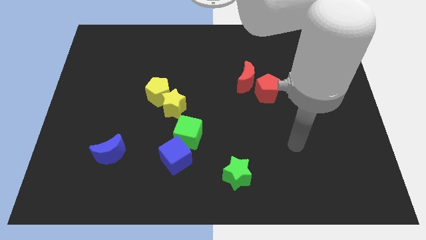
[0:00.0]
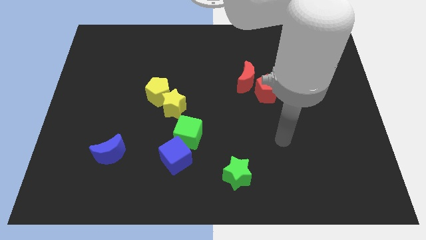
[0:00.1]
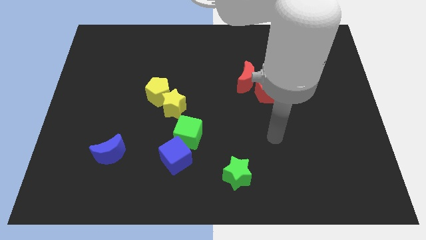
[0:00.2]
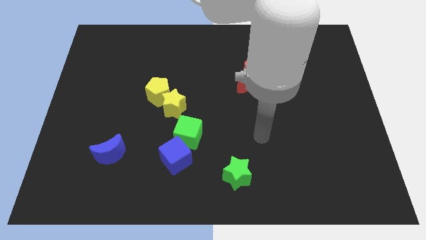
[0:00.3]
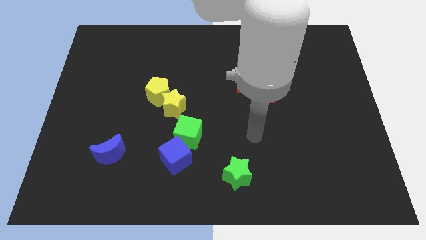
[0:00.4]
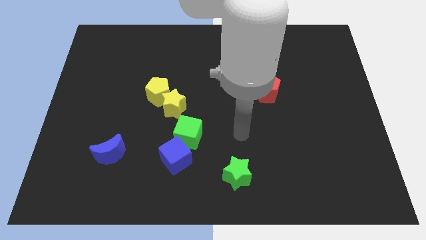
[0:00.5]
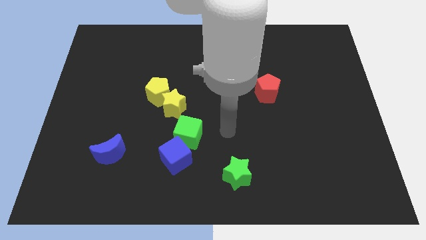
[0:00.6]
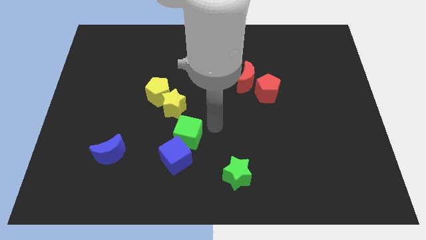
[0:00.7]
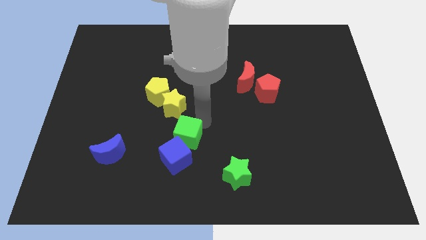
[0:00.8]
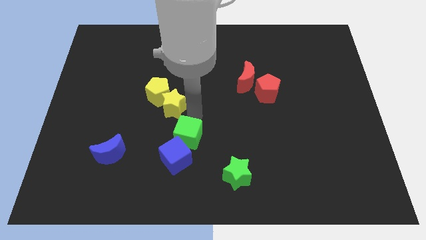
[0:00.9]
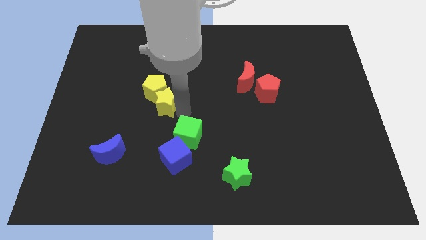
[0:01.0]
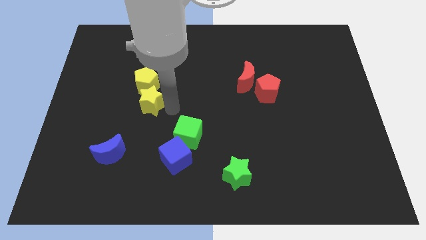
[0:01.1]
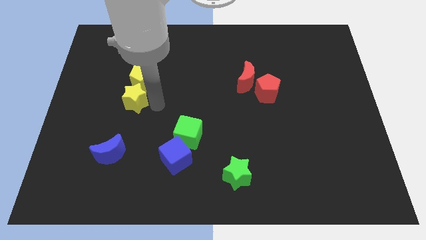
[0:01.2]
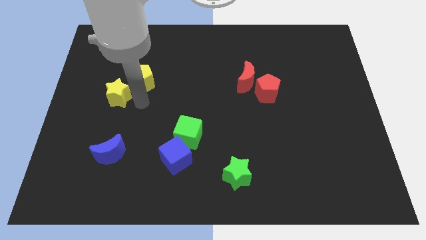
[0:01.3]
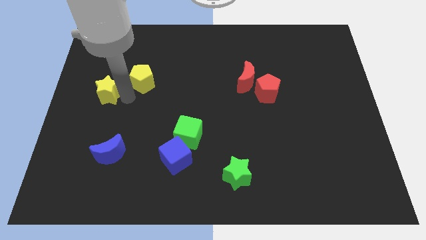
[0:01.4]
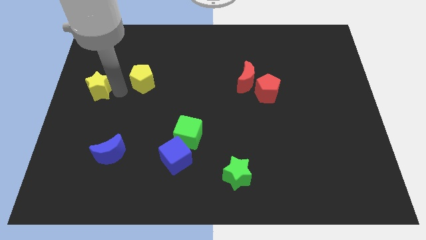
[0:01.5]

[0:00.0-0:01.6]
separate the yellow pentagon from the yellow star

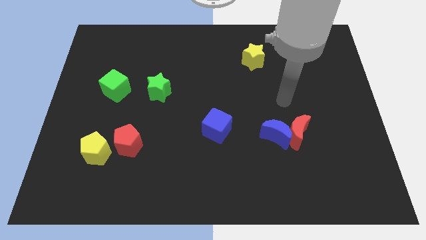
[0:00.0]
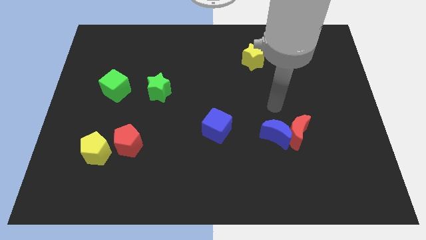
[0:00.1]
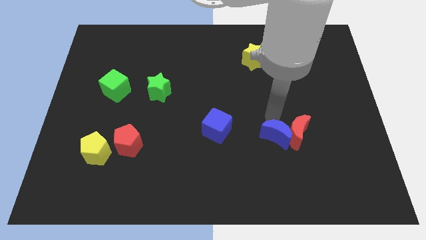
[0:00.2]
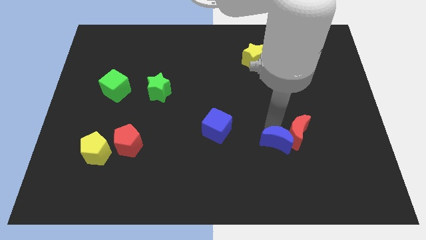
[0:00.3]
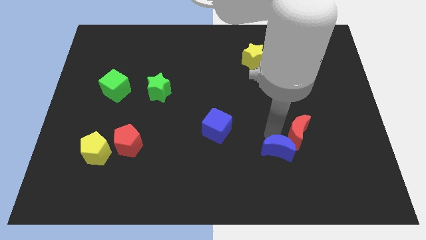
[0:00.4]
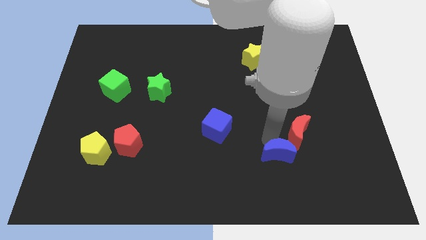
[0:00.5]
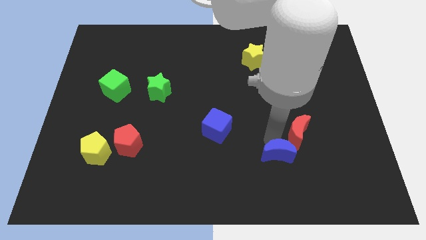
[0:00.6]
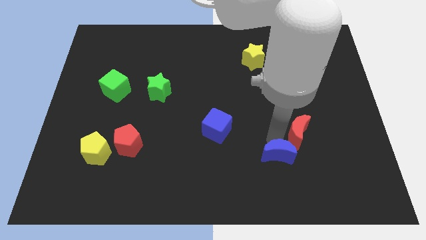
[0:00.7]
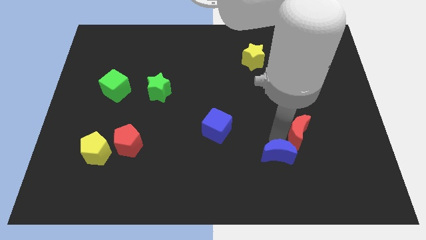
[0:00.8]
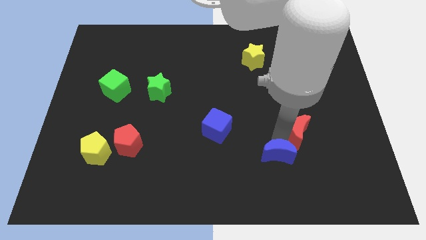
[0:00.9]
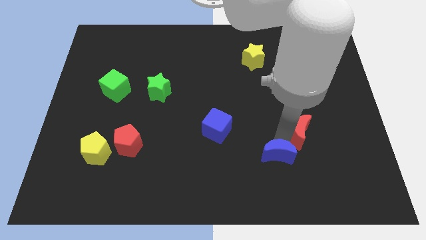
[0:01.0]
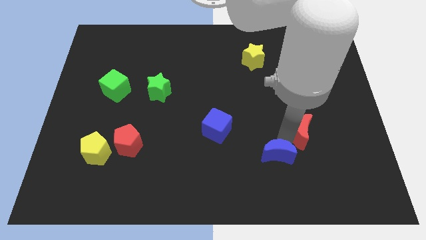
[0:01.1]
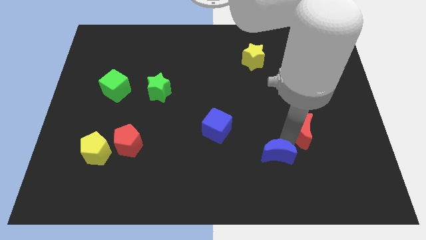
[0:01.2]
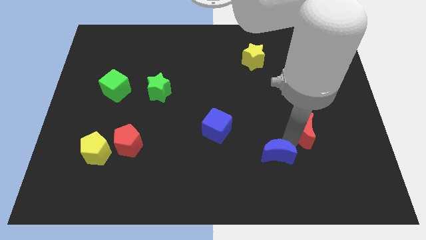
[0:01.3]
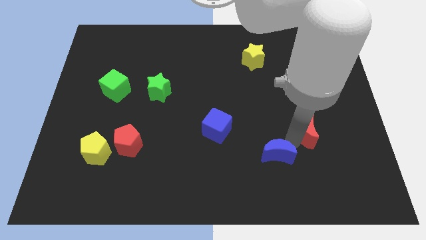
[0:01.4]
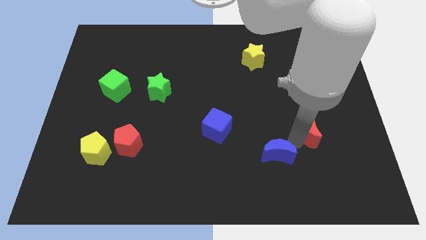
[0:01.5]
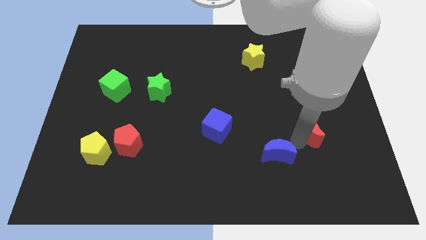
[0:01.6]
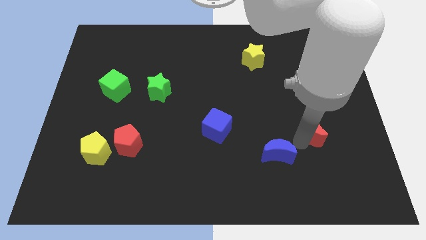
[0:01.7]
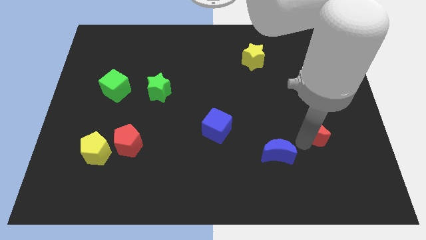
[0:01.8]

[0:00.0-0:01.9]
separate the red moon from the blue moon

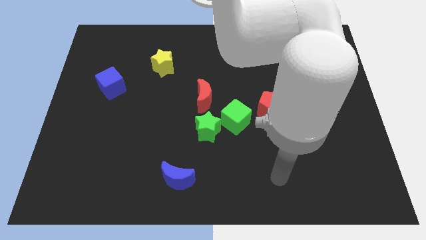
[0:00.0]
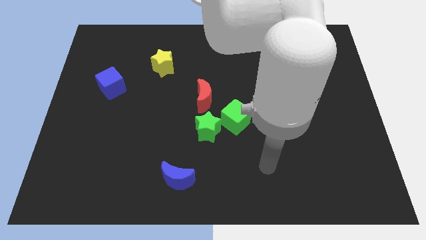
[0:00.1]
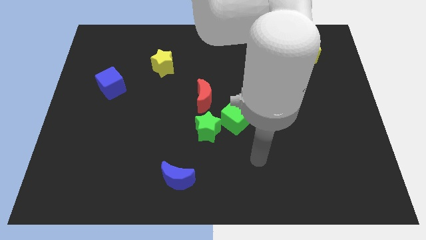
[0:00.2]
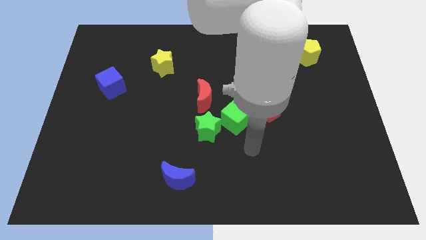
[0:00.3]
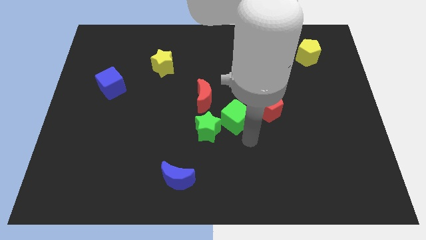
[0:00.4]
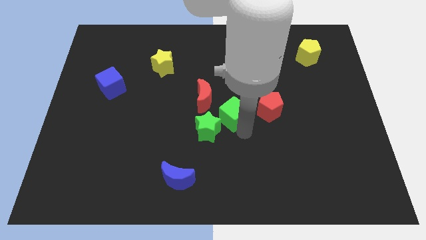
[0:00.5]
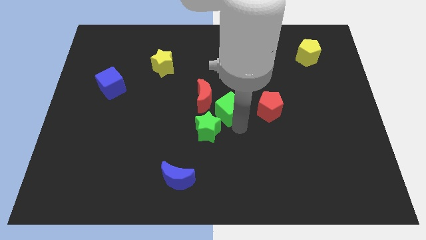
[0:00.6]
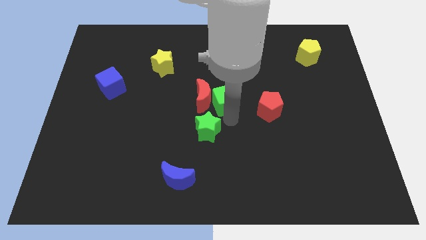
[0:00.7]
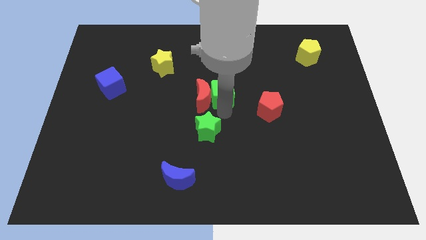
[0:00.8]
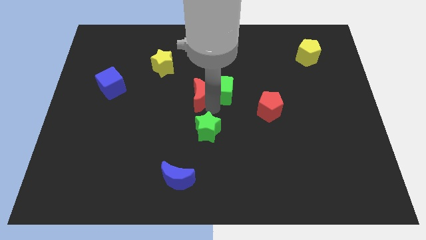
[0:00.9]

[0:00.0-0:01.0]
separate the green star from the green cube and red moon

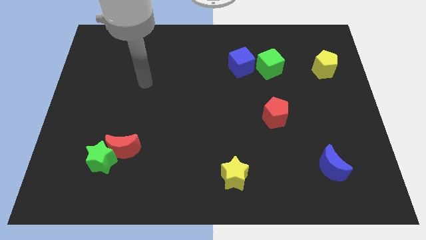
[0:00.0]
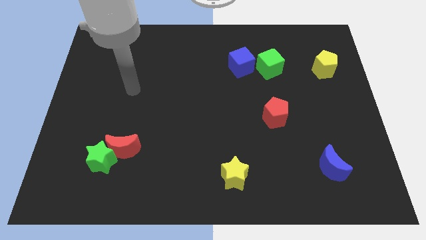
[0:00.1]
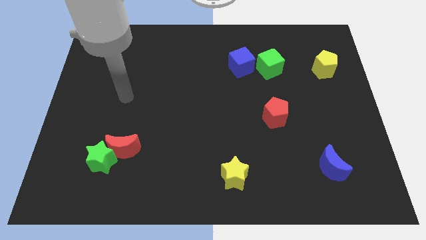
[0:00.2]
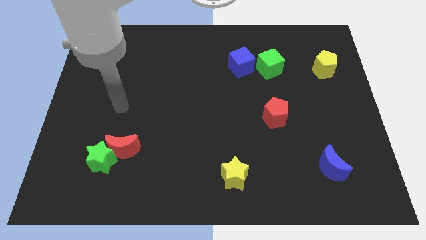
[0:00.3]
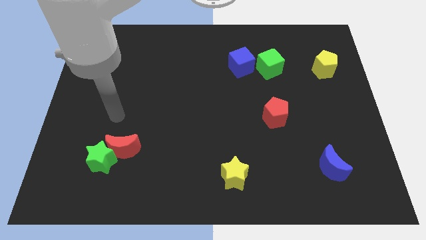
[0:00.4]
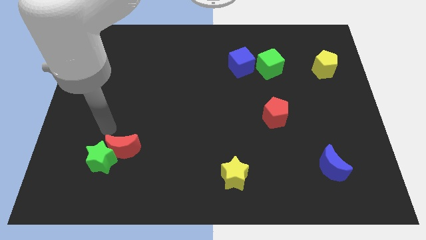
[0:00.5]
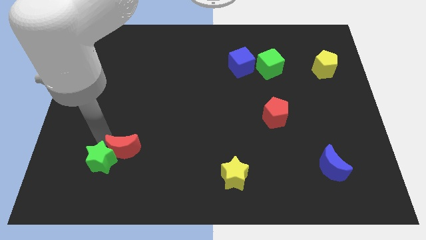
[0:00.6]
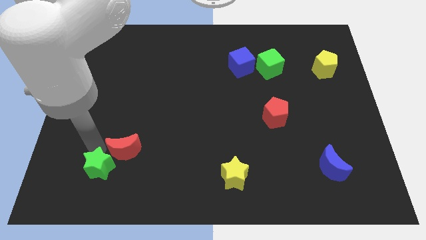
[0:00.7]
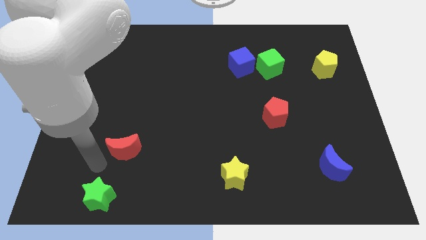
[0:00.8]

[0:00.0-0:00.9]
move the red moon away from the green star

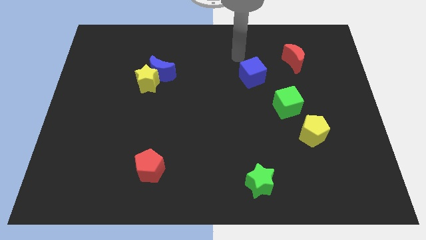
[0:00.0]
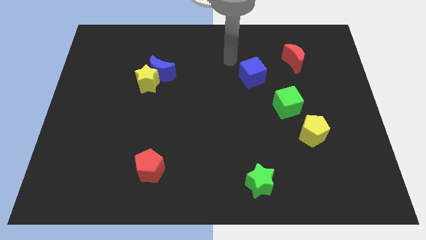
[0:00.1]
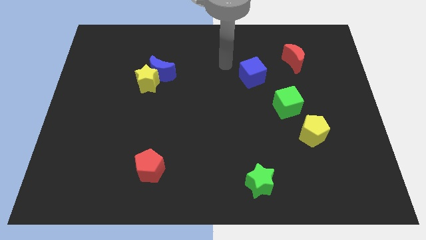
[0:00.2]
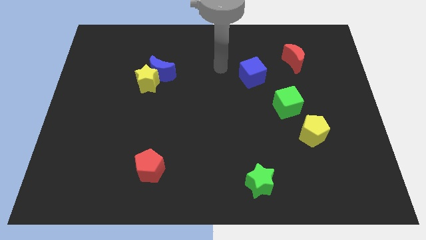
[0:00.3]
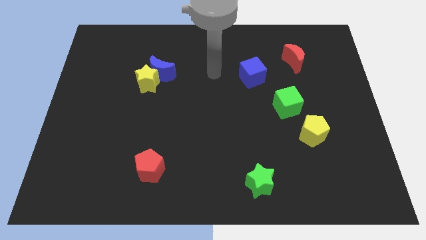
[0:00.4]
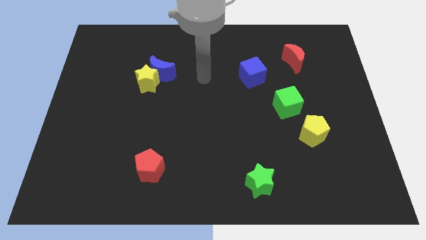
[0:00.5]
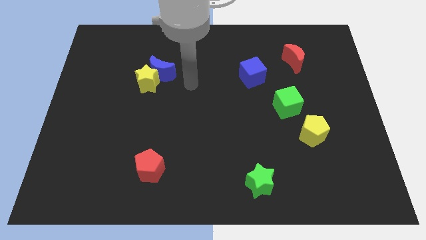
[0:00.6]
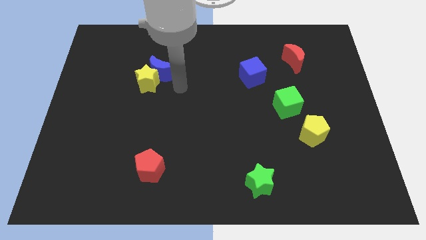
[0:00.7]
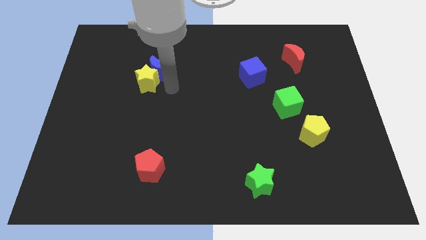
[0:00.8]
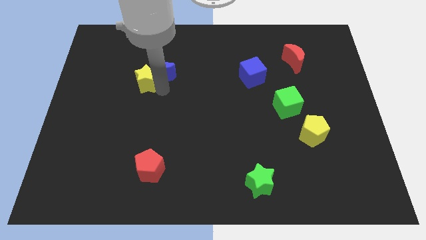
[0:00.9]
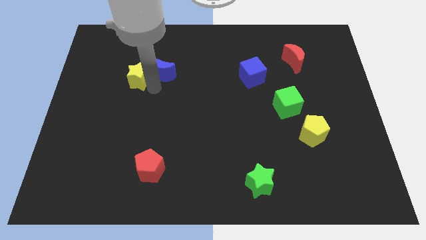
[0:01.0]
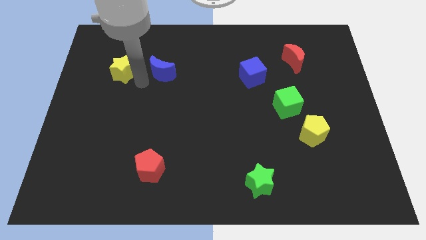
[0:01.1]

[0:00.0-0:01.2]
pull the blue moon apart from the yellow star

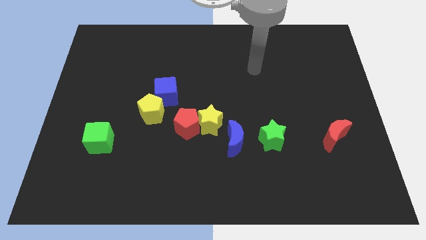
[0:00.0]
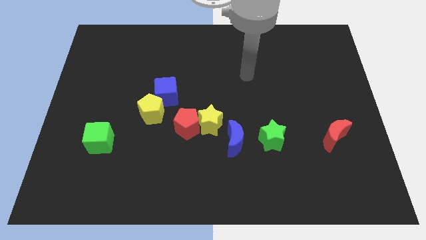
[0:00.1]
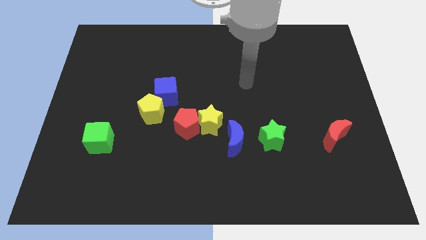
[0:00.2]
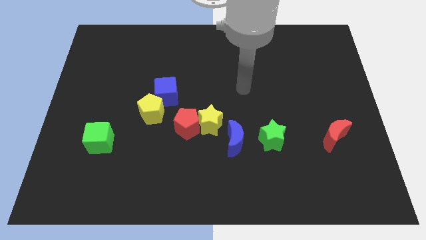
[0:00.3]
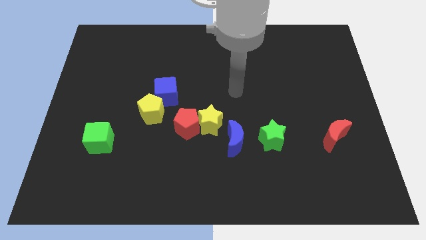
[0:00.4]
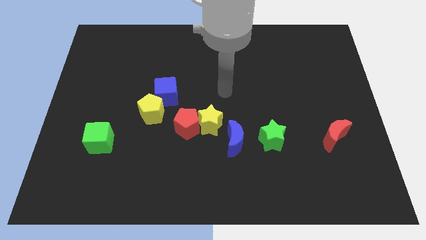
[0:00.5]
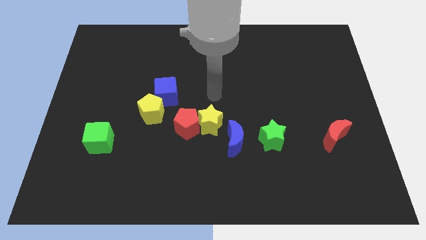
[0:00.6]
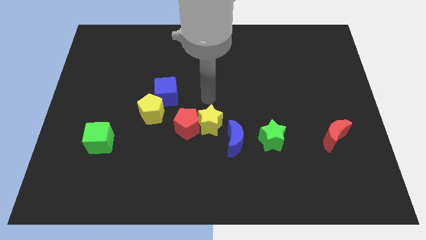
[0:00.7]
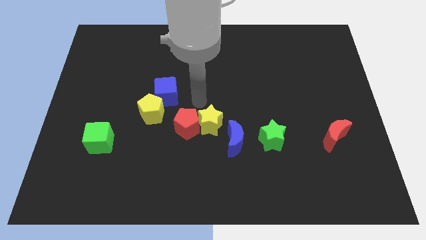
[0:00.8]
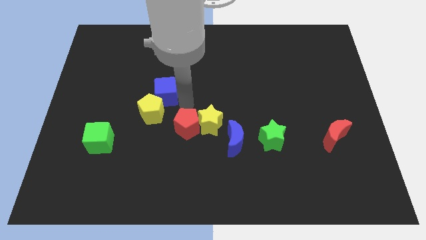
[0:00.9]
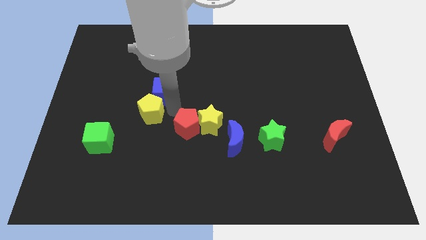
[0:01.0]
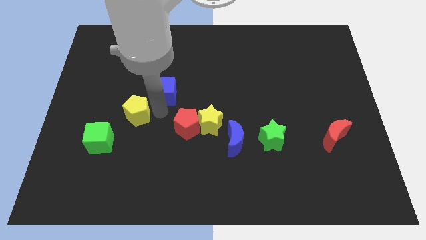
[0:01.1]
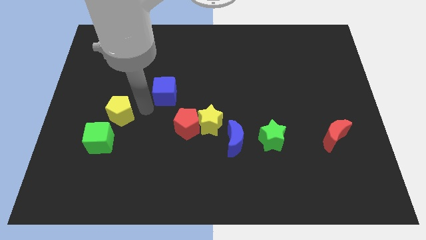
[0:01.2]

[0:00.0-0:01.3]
separate the blue cube from the yellow pentagon

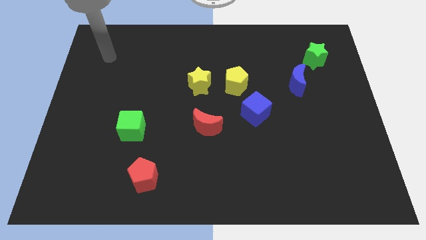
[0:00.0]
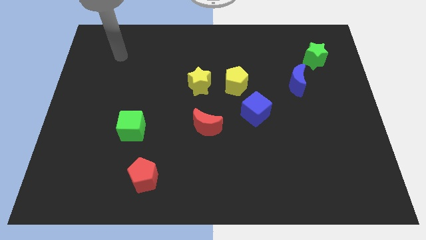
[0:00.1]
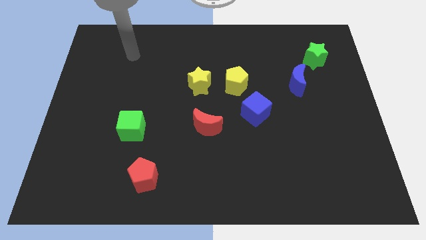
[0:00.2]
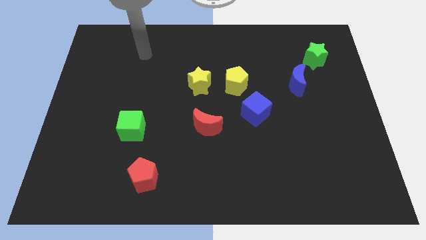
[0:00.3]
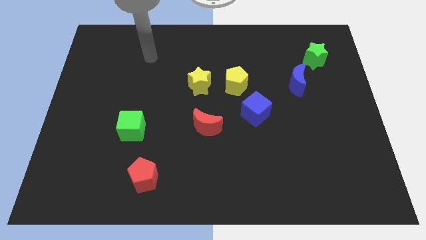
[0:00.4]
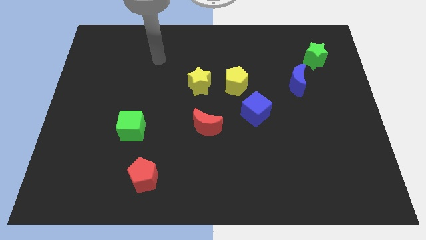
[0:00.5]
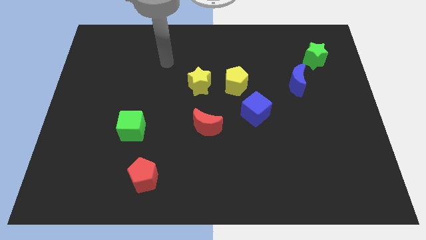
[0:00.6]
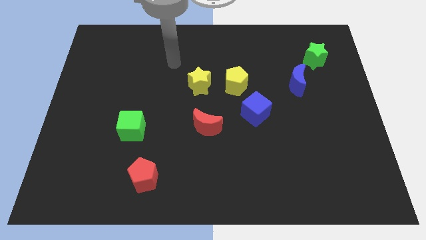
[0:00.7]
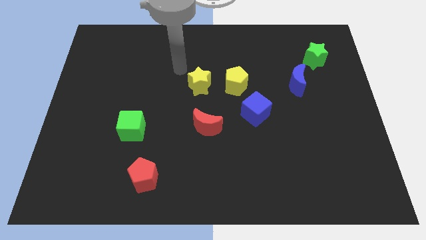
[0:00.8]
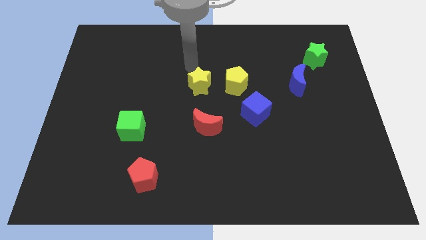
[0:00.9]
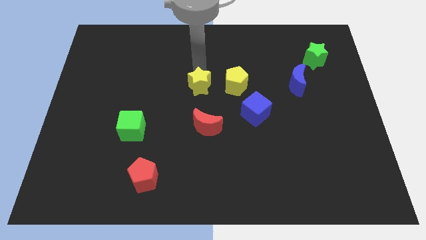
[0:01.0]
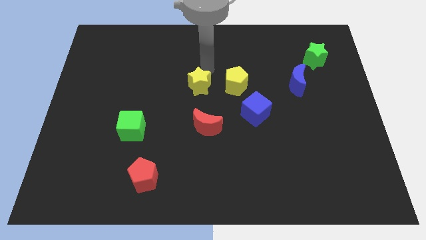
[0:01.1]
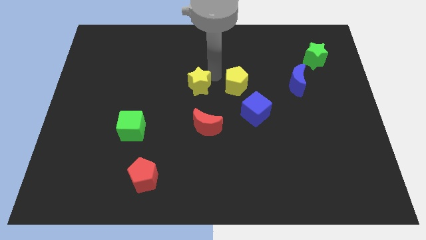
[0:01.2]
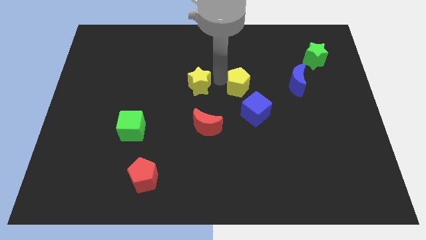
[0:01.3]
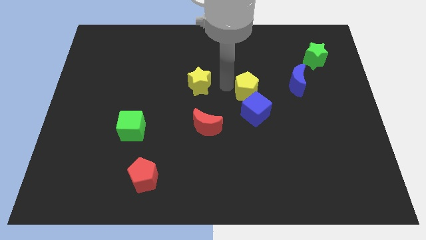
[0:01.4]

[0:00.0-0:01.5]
pull the yellow star apart from the yellow pentagon
